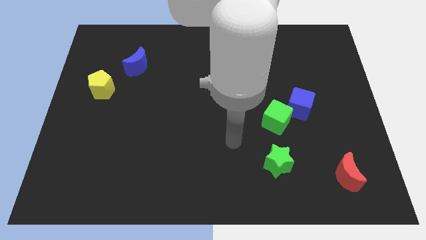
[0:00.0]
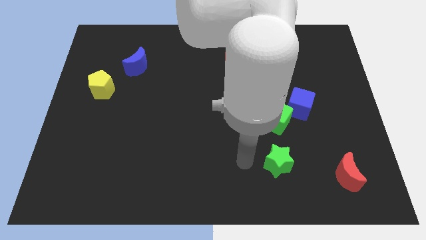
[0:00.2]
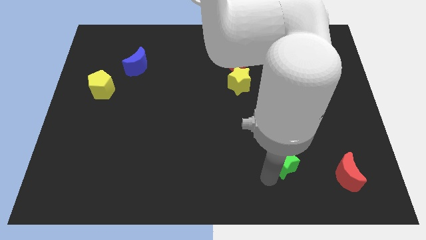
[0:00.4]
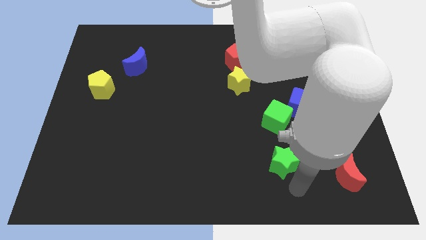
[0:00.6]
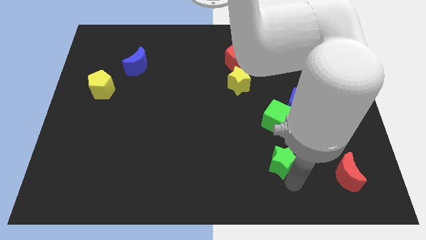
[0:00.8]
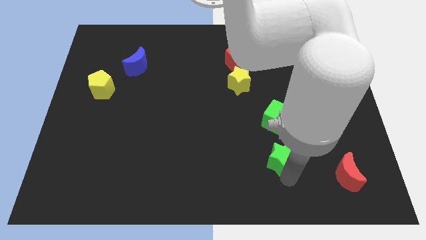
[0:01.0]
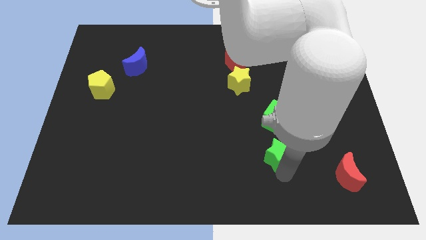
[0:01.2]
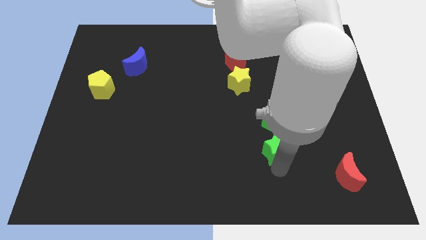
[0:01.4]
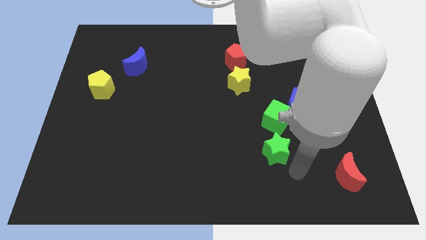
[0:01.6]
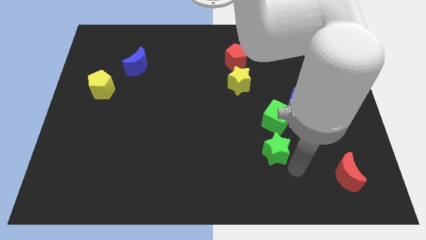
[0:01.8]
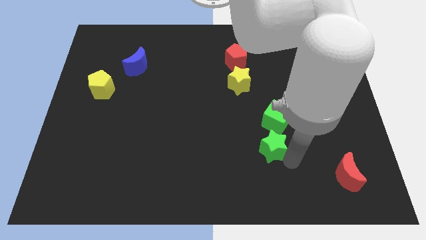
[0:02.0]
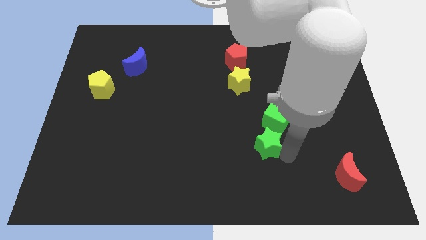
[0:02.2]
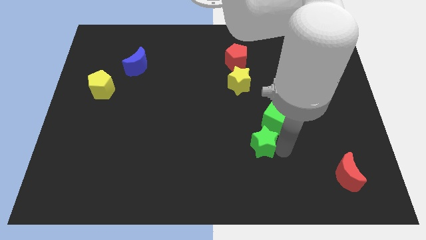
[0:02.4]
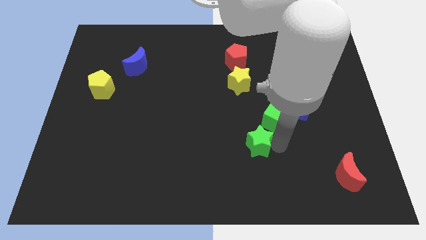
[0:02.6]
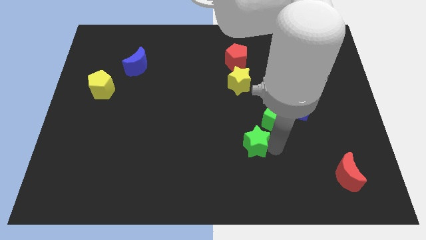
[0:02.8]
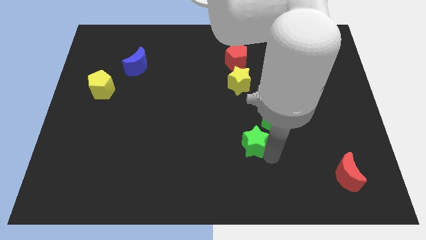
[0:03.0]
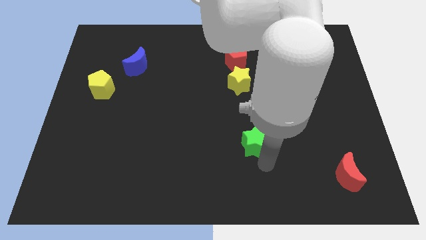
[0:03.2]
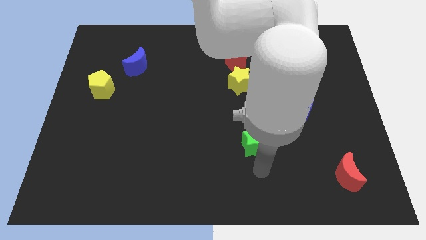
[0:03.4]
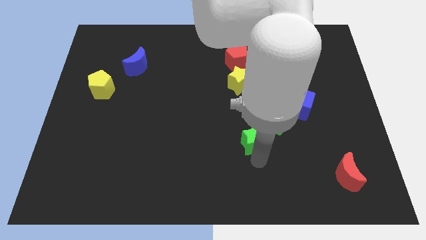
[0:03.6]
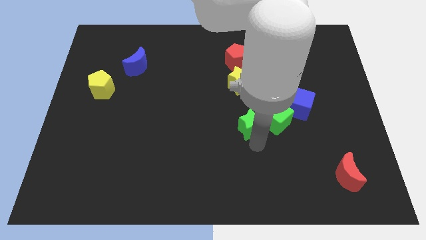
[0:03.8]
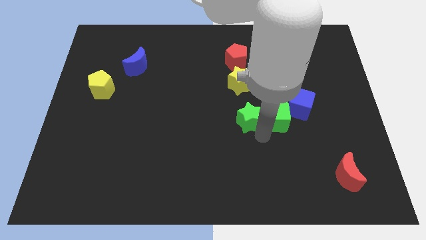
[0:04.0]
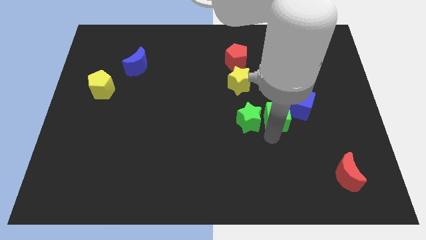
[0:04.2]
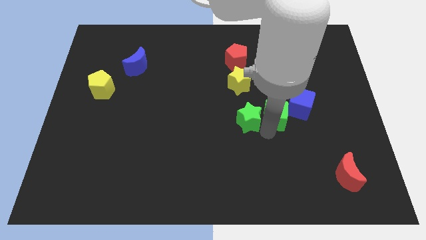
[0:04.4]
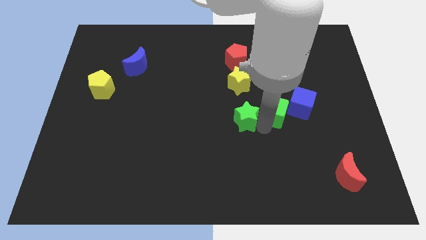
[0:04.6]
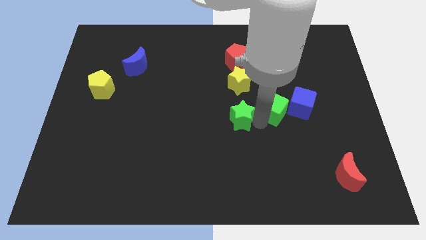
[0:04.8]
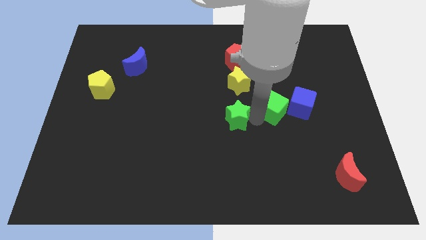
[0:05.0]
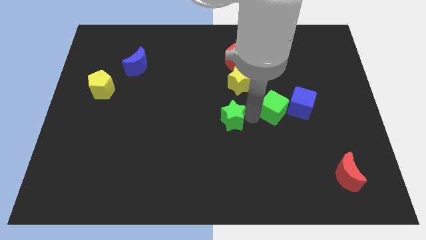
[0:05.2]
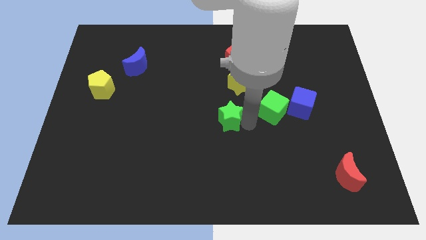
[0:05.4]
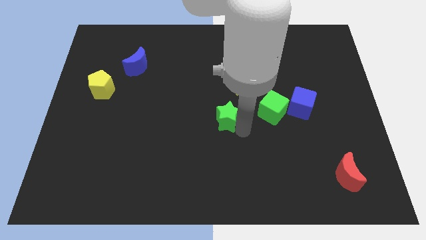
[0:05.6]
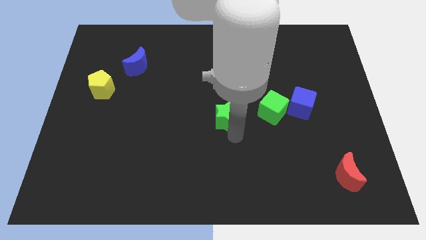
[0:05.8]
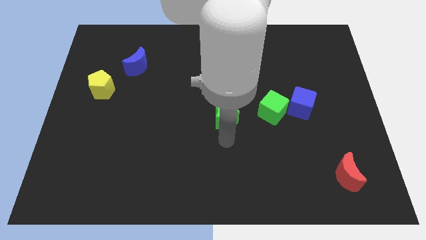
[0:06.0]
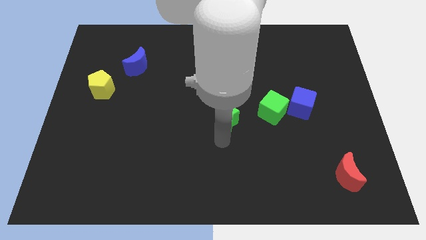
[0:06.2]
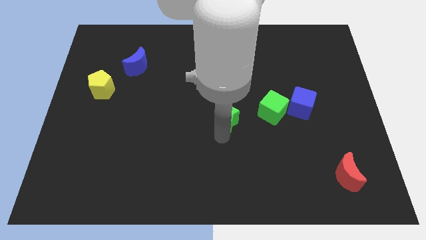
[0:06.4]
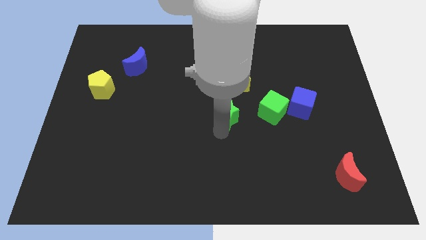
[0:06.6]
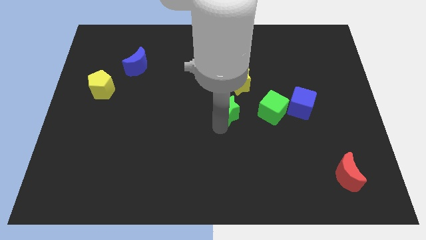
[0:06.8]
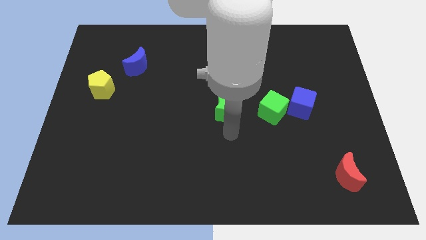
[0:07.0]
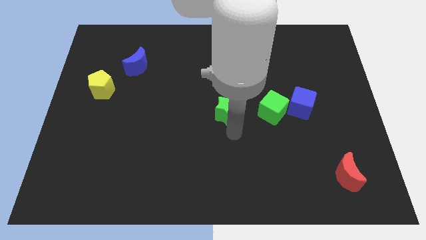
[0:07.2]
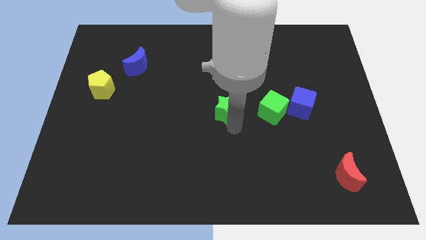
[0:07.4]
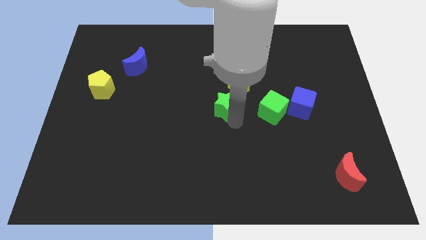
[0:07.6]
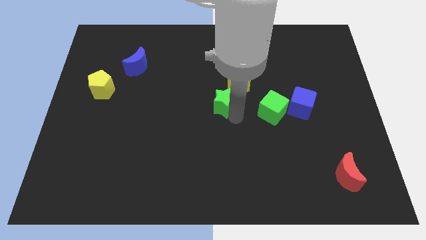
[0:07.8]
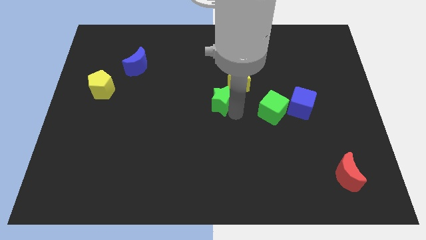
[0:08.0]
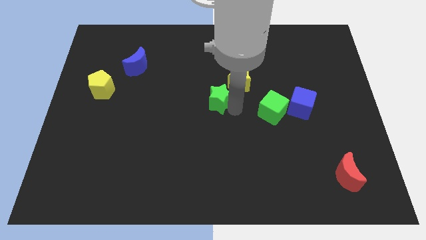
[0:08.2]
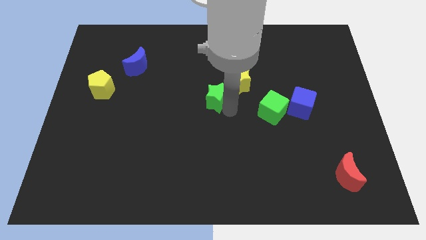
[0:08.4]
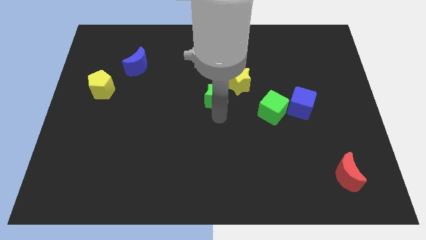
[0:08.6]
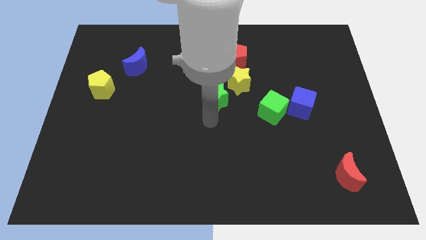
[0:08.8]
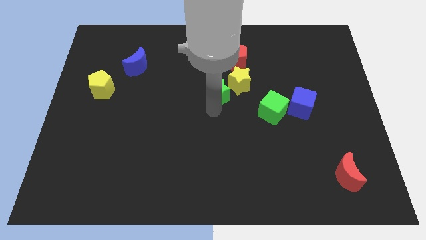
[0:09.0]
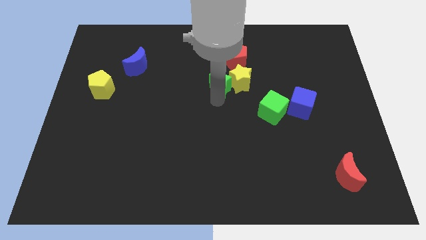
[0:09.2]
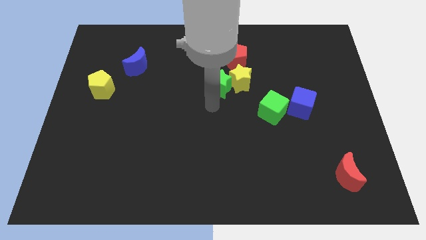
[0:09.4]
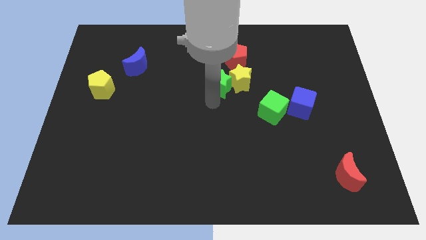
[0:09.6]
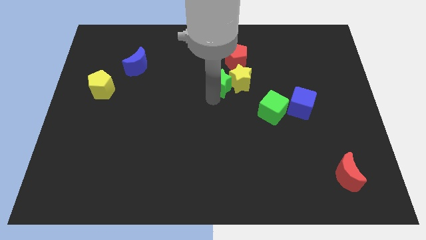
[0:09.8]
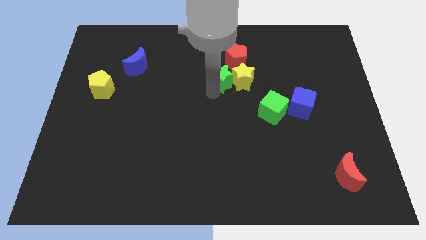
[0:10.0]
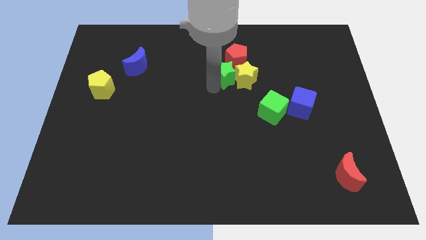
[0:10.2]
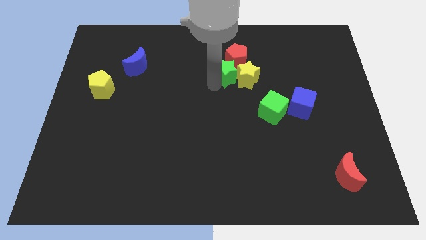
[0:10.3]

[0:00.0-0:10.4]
move the green star to the red pentagon

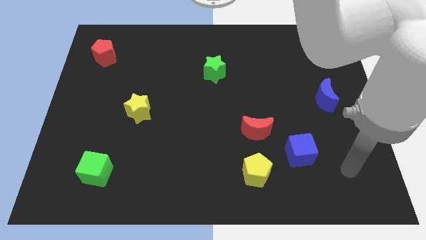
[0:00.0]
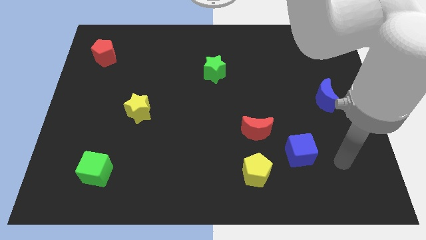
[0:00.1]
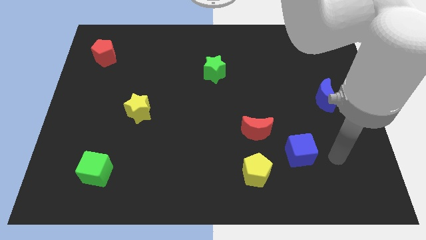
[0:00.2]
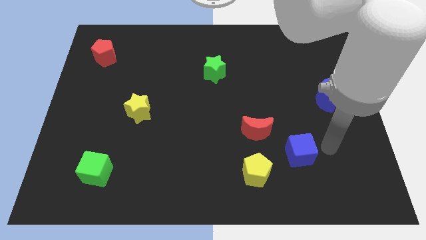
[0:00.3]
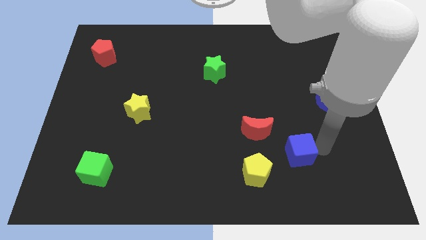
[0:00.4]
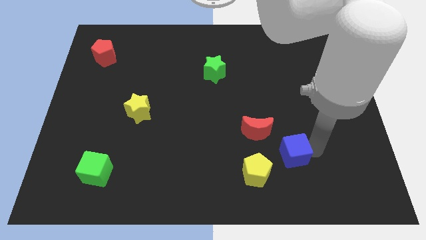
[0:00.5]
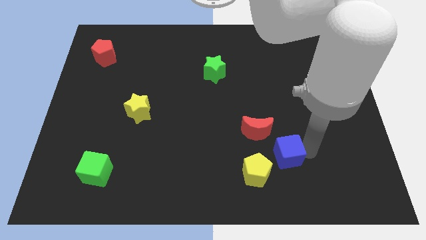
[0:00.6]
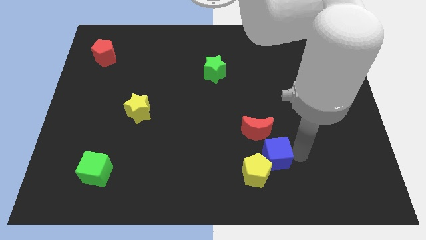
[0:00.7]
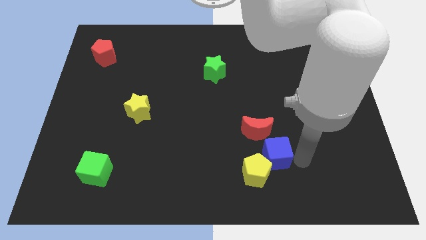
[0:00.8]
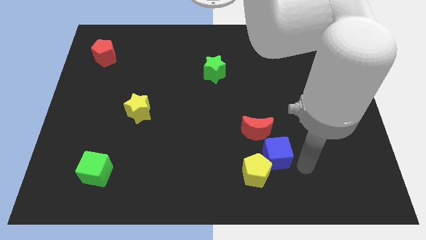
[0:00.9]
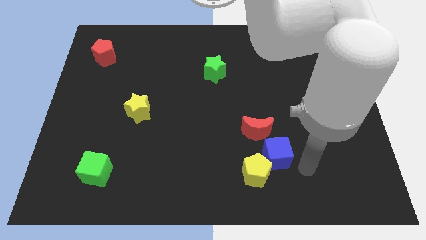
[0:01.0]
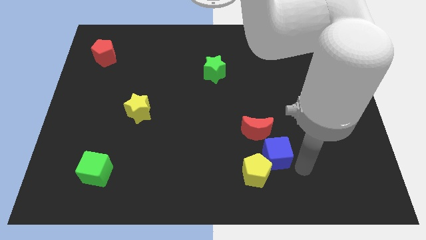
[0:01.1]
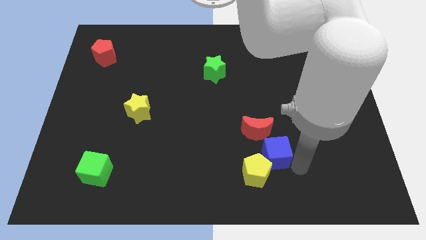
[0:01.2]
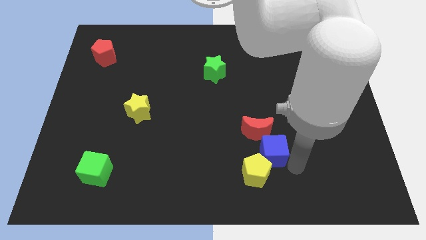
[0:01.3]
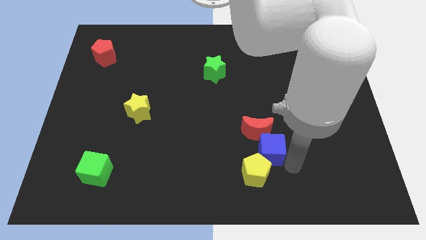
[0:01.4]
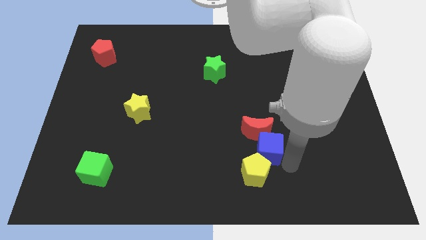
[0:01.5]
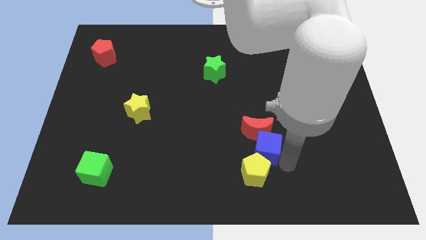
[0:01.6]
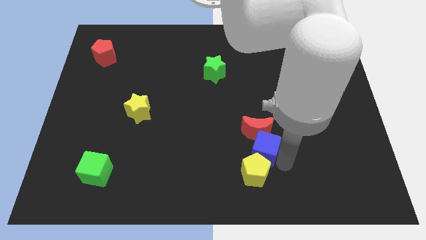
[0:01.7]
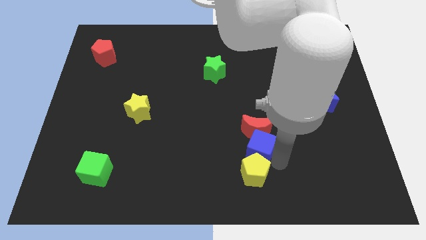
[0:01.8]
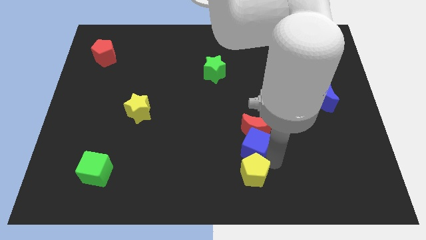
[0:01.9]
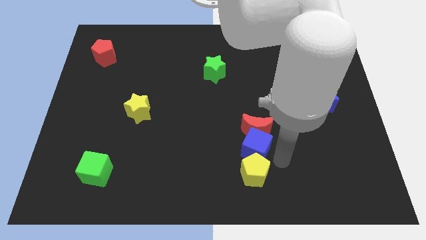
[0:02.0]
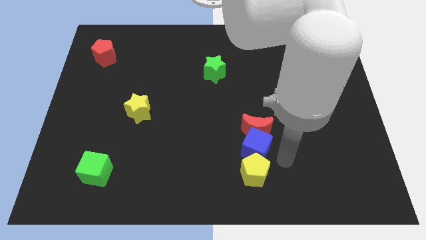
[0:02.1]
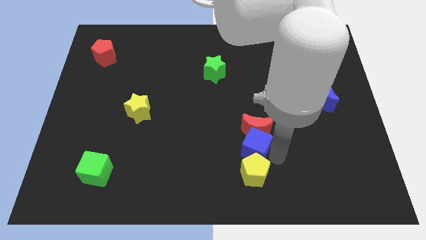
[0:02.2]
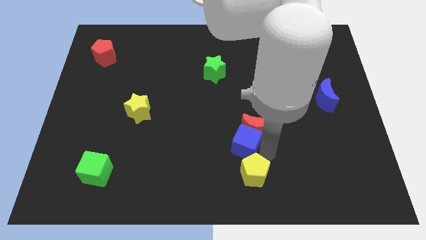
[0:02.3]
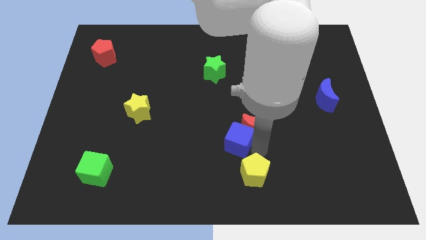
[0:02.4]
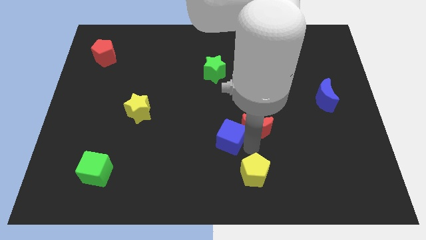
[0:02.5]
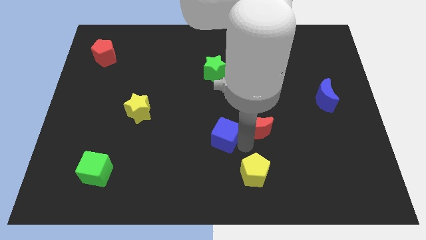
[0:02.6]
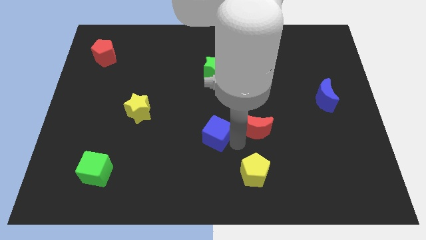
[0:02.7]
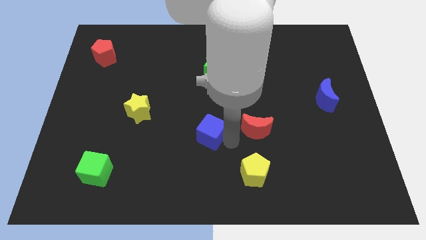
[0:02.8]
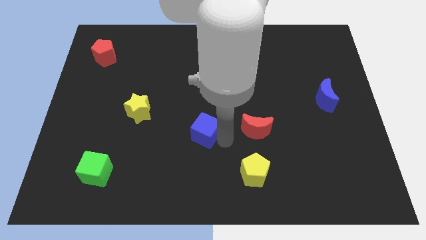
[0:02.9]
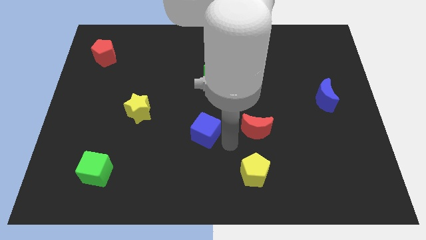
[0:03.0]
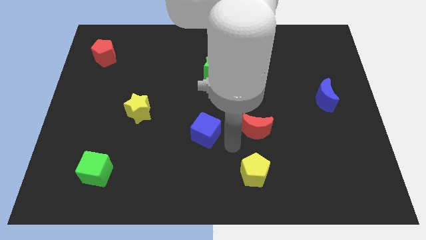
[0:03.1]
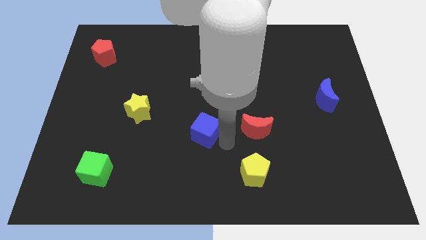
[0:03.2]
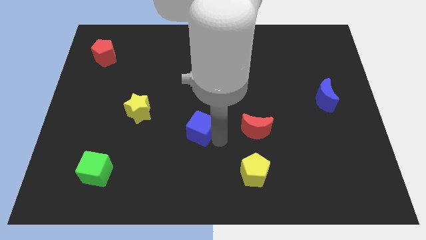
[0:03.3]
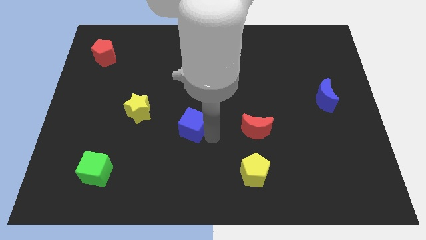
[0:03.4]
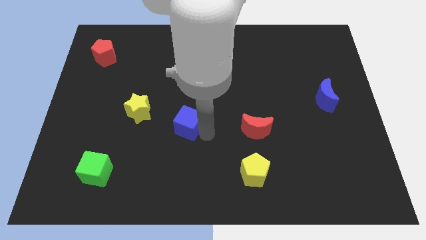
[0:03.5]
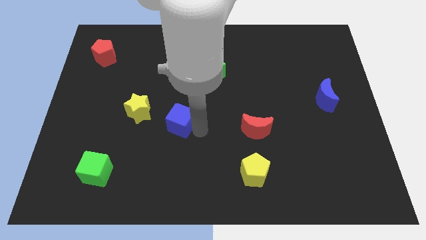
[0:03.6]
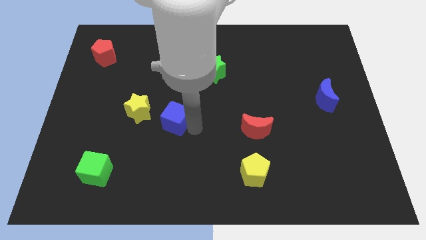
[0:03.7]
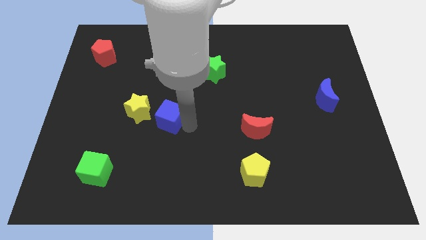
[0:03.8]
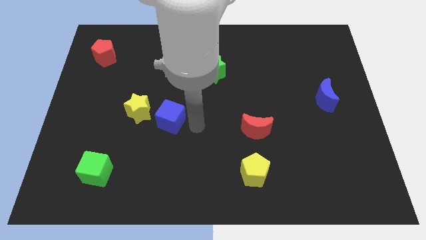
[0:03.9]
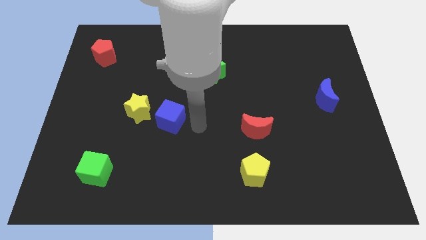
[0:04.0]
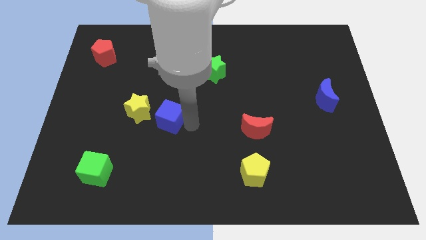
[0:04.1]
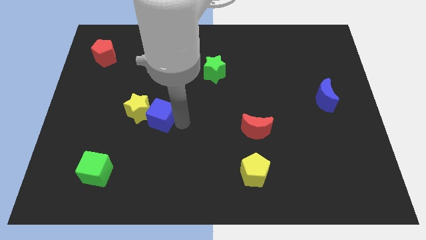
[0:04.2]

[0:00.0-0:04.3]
slide the blue cube to the yellow star
